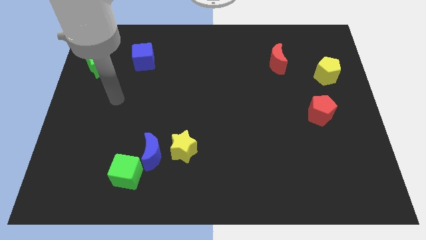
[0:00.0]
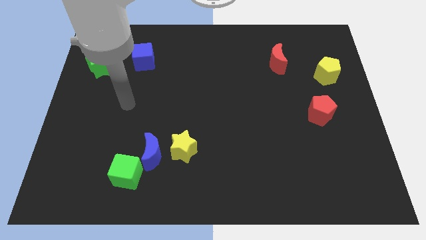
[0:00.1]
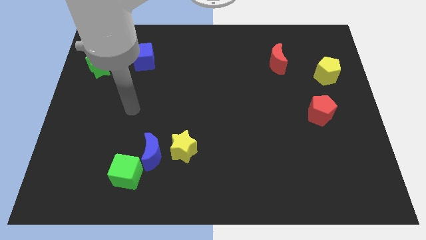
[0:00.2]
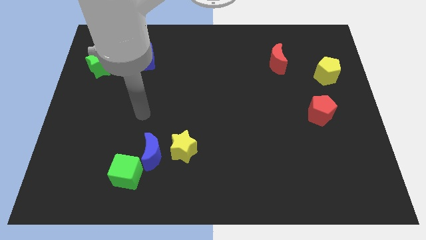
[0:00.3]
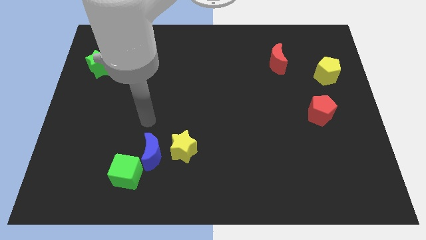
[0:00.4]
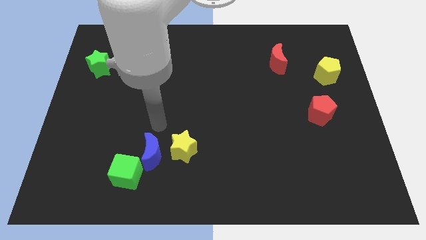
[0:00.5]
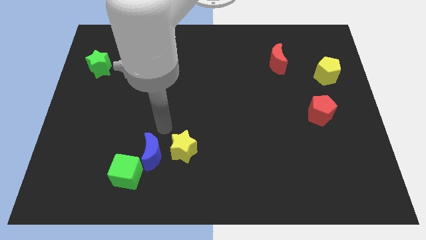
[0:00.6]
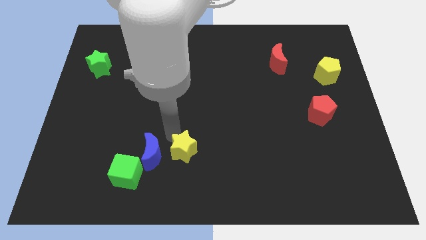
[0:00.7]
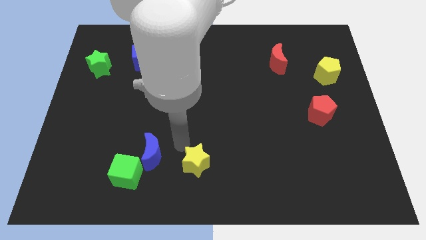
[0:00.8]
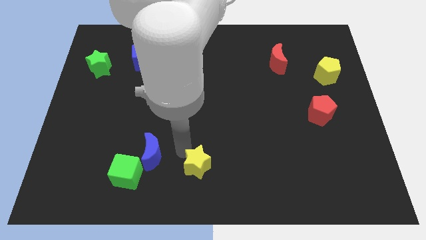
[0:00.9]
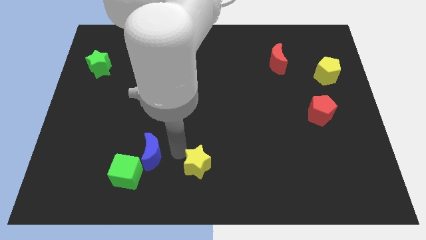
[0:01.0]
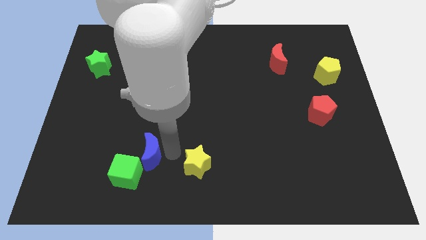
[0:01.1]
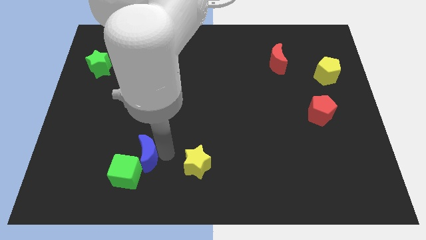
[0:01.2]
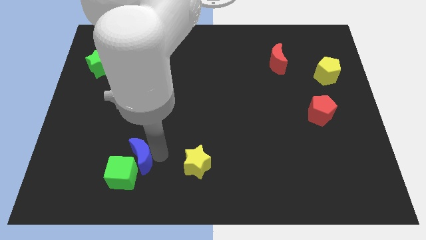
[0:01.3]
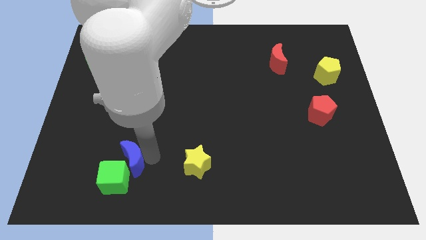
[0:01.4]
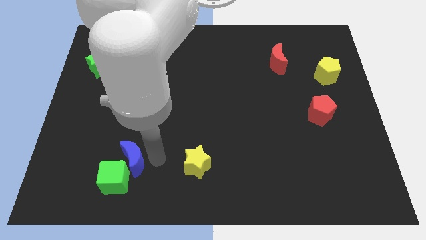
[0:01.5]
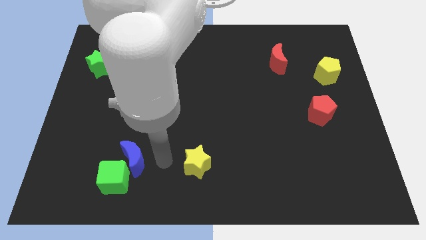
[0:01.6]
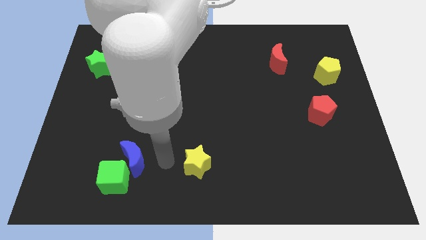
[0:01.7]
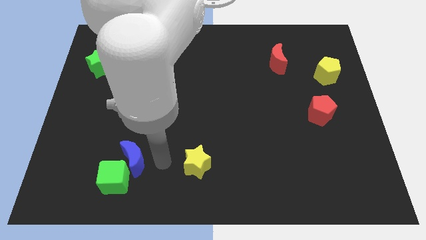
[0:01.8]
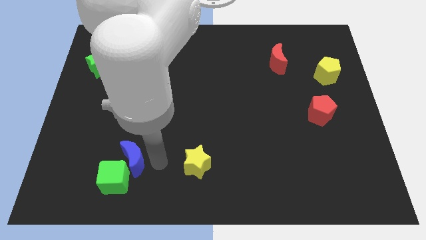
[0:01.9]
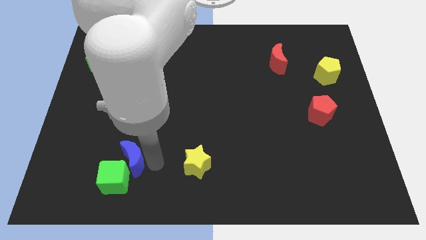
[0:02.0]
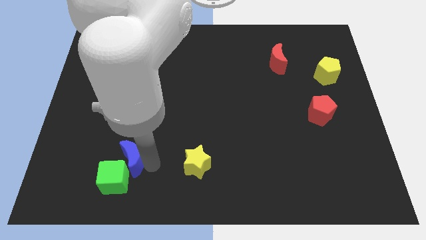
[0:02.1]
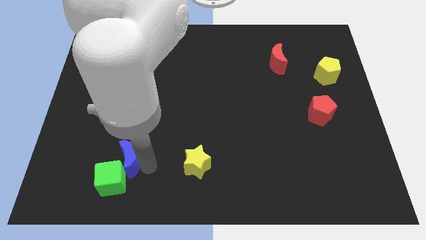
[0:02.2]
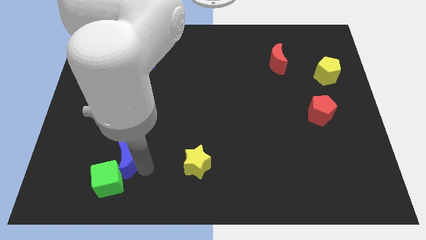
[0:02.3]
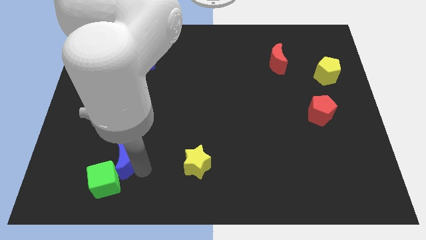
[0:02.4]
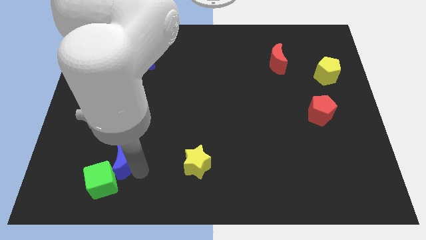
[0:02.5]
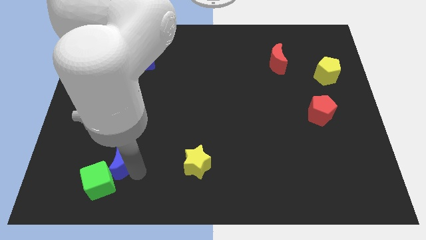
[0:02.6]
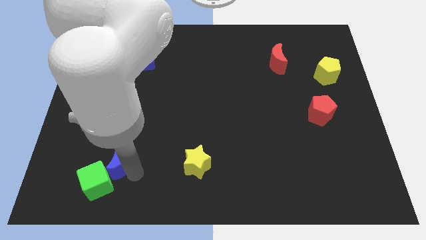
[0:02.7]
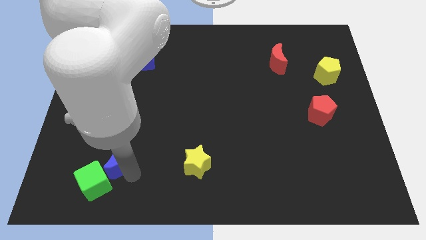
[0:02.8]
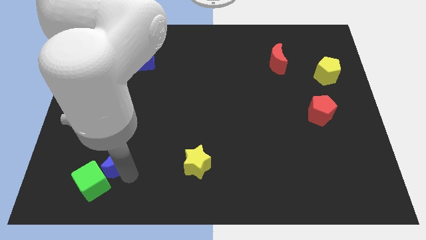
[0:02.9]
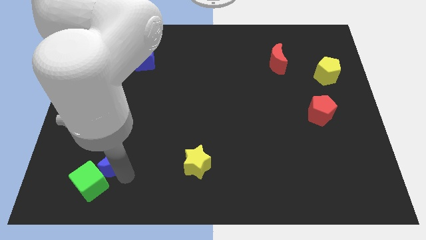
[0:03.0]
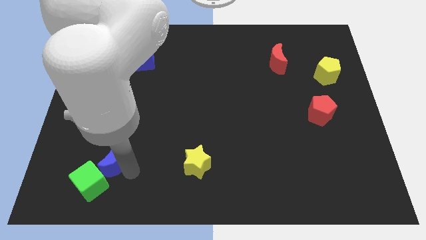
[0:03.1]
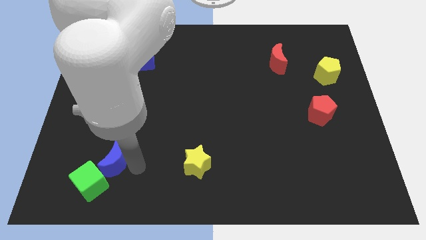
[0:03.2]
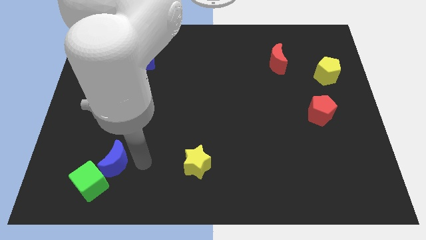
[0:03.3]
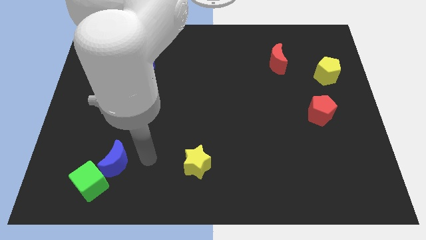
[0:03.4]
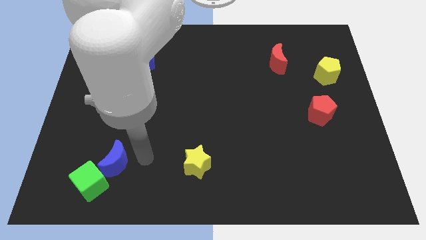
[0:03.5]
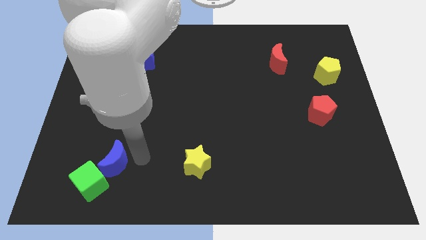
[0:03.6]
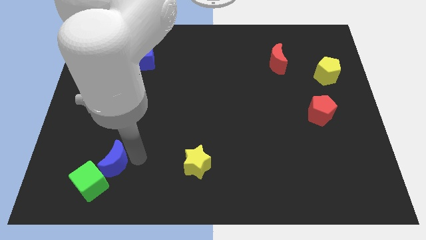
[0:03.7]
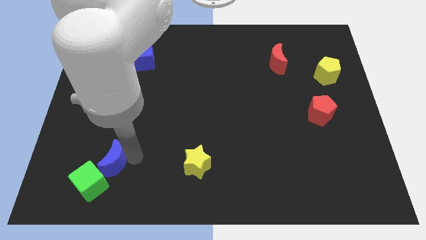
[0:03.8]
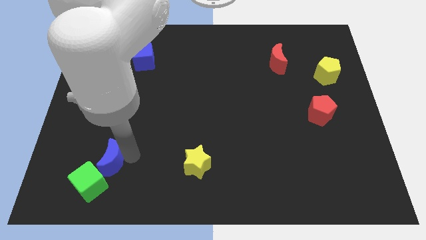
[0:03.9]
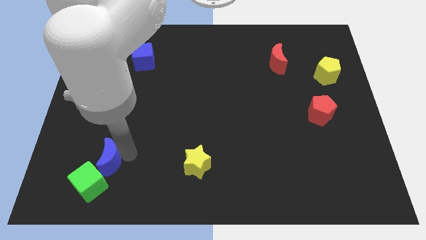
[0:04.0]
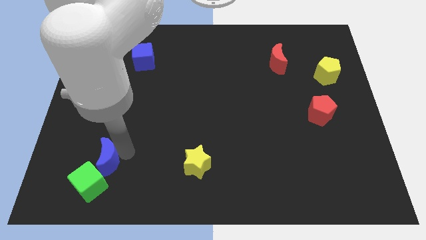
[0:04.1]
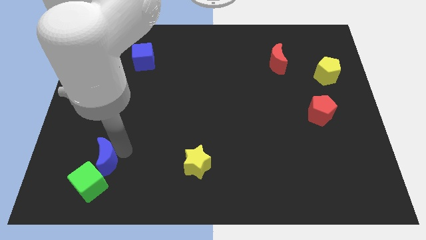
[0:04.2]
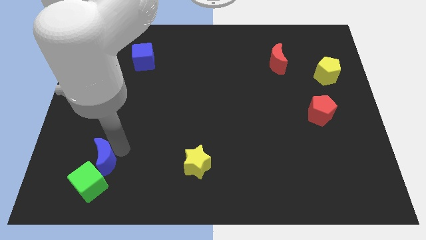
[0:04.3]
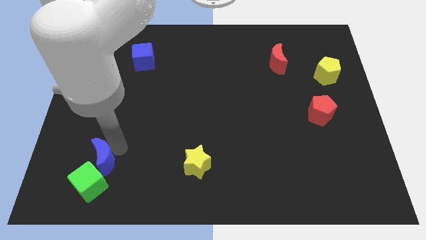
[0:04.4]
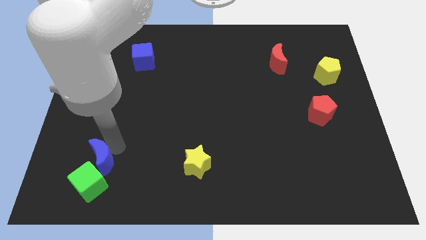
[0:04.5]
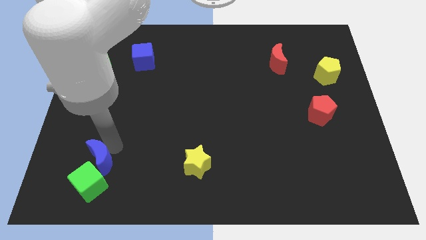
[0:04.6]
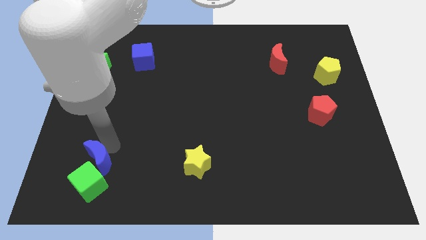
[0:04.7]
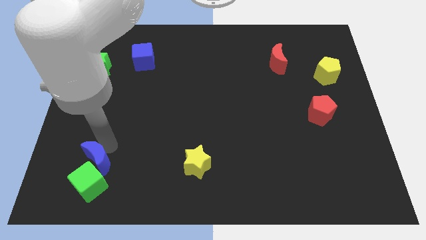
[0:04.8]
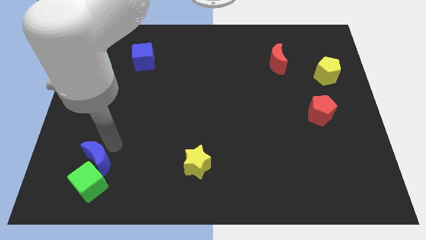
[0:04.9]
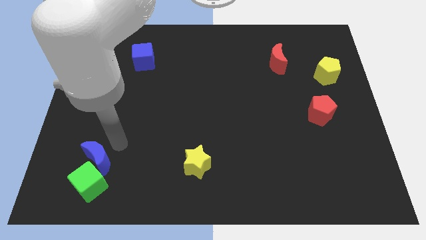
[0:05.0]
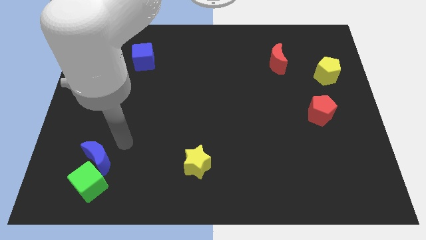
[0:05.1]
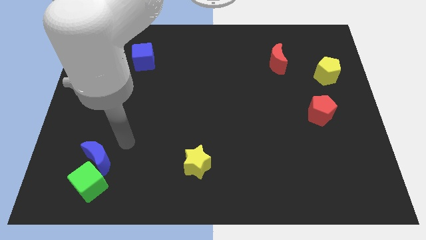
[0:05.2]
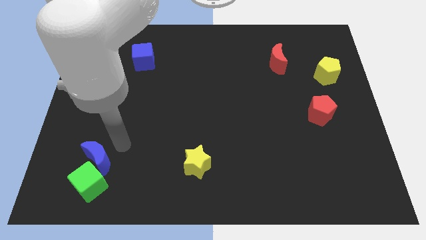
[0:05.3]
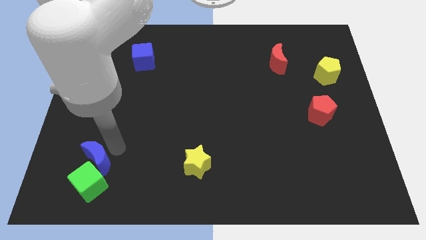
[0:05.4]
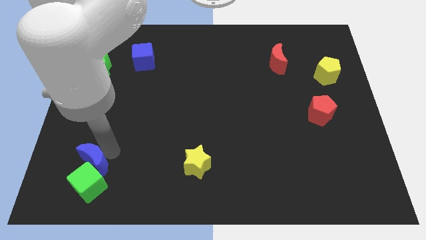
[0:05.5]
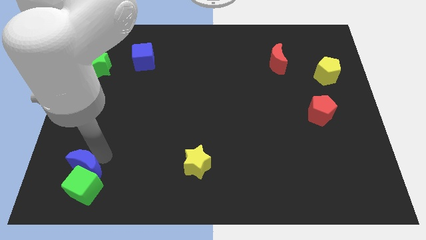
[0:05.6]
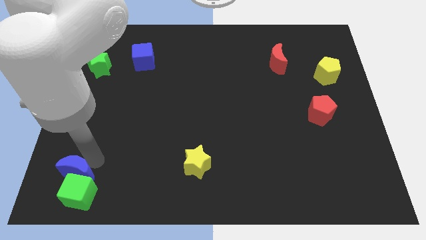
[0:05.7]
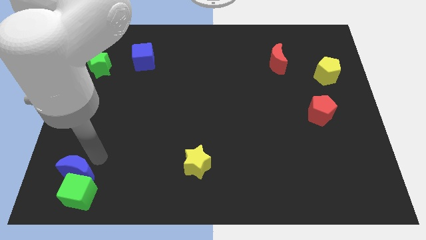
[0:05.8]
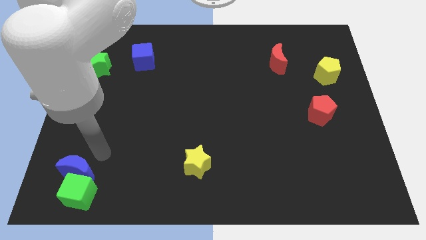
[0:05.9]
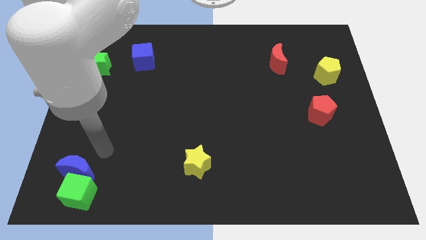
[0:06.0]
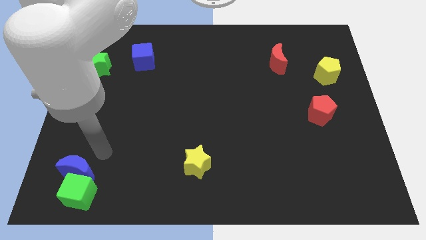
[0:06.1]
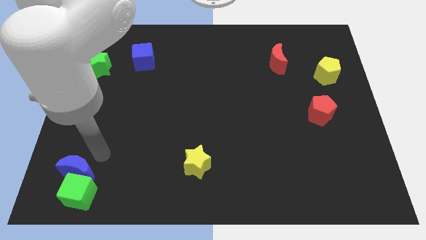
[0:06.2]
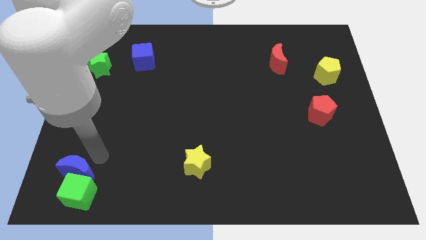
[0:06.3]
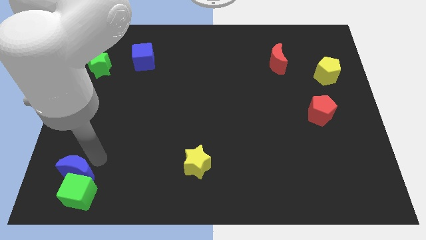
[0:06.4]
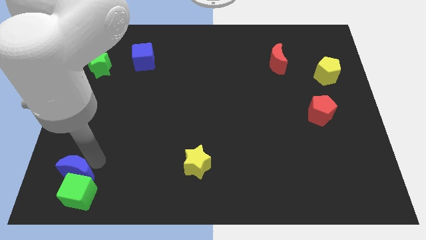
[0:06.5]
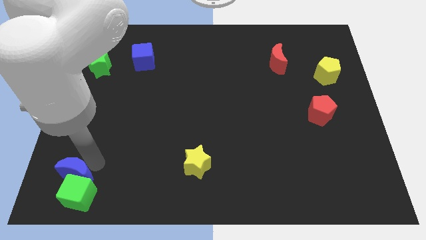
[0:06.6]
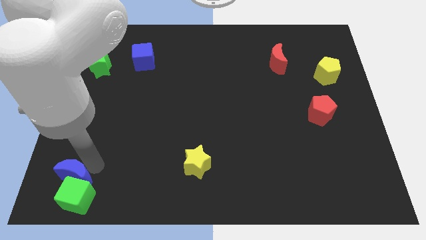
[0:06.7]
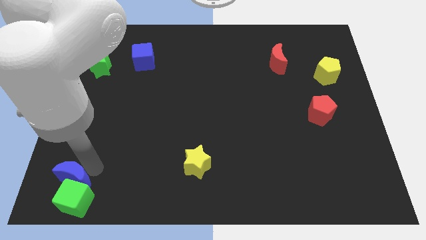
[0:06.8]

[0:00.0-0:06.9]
slide the blue moon to the bottom left
